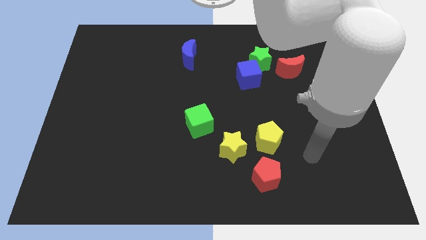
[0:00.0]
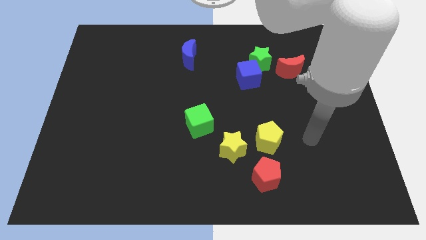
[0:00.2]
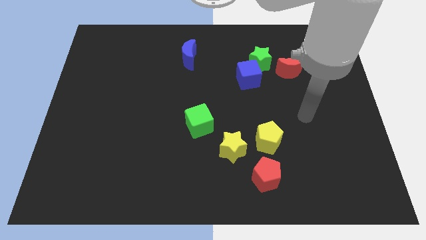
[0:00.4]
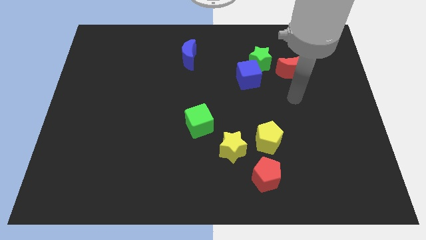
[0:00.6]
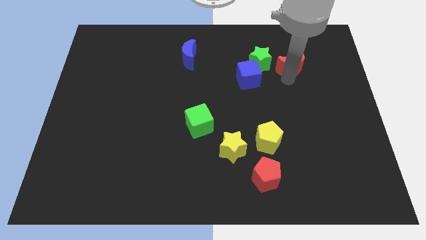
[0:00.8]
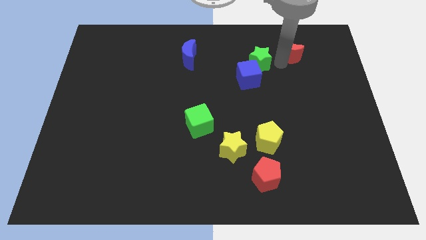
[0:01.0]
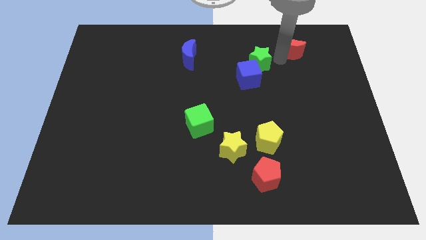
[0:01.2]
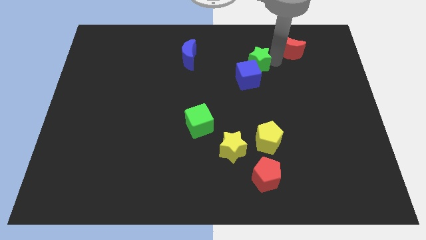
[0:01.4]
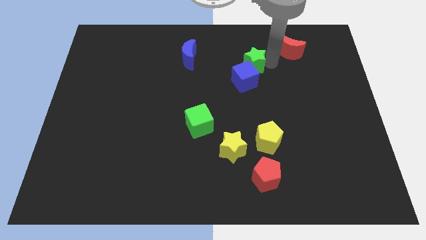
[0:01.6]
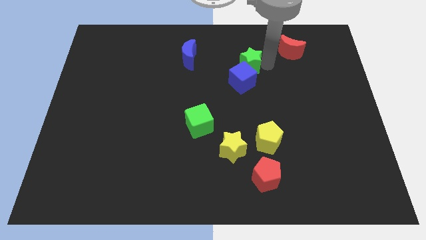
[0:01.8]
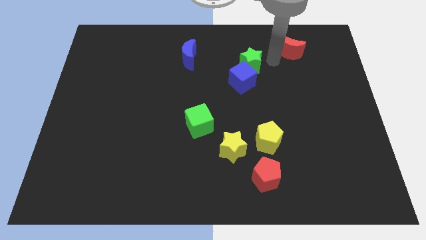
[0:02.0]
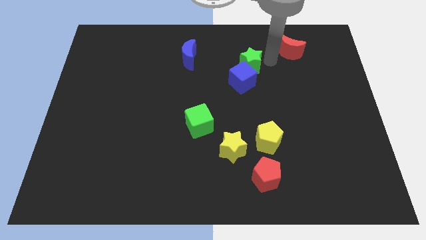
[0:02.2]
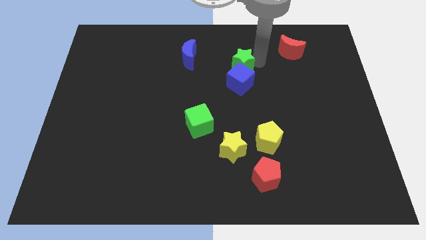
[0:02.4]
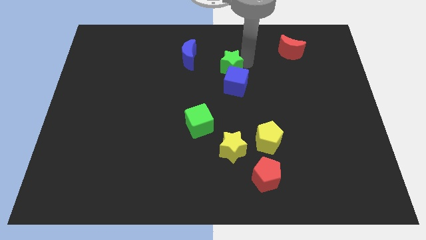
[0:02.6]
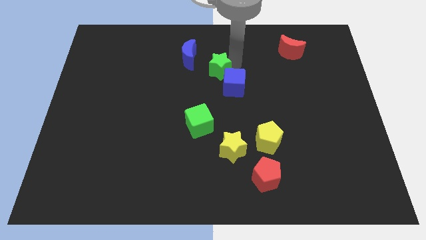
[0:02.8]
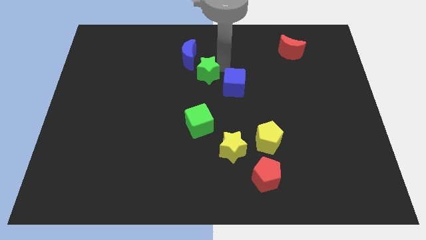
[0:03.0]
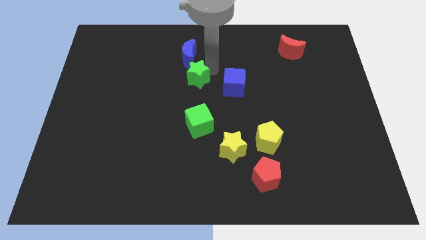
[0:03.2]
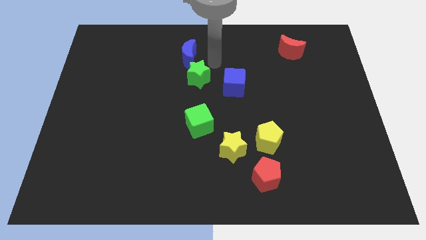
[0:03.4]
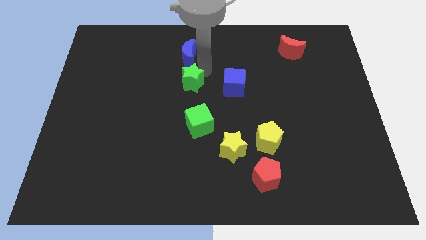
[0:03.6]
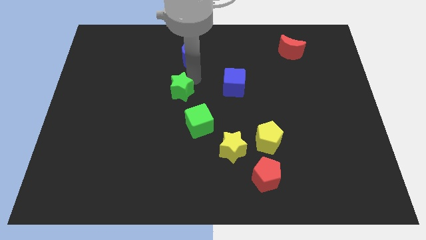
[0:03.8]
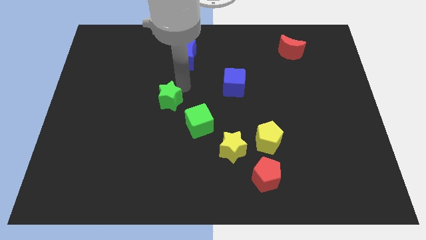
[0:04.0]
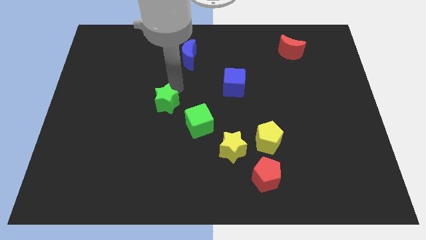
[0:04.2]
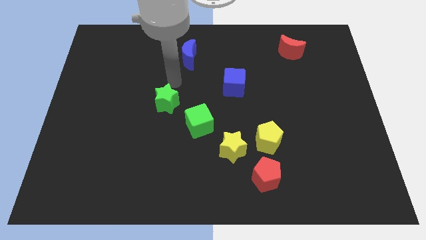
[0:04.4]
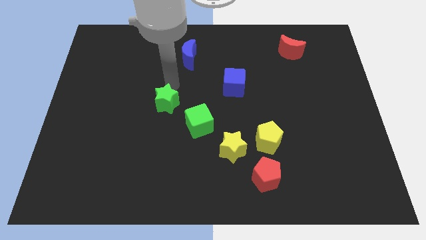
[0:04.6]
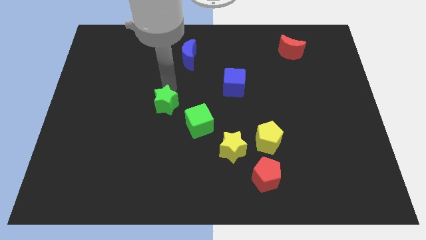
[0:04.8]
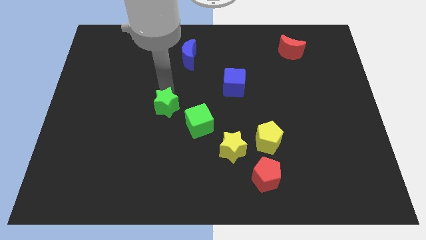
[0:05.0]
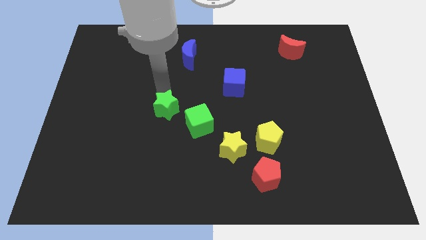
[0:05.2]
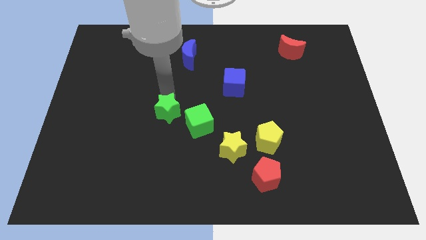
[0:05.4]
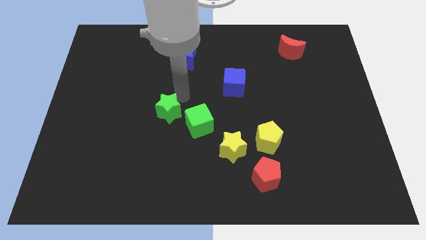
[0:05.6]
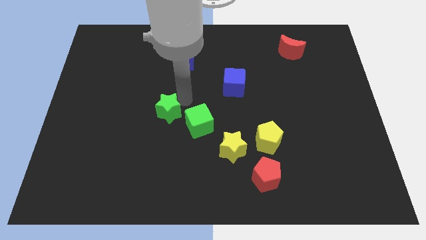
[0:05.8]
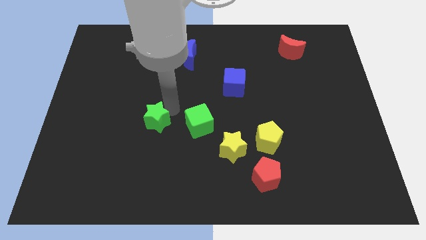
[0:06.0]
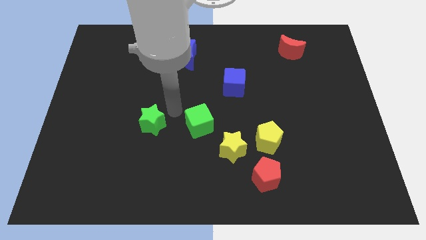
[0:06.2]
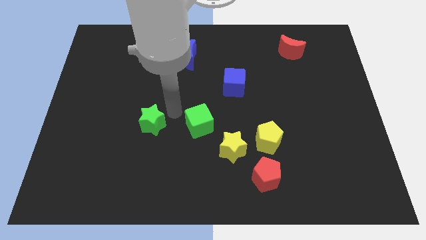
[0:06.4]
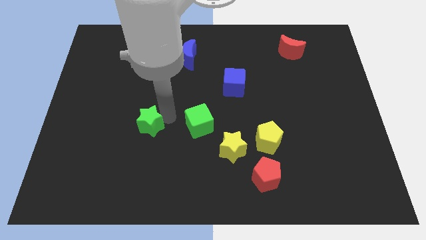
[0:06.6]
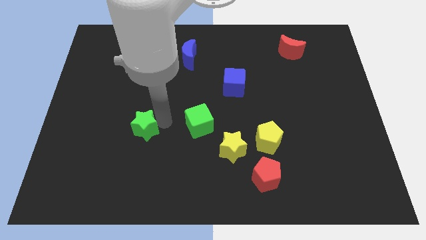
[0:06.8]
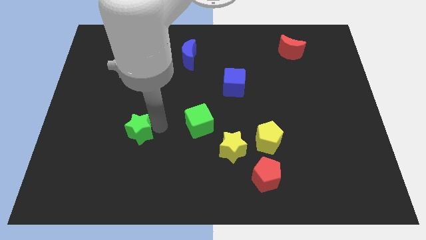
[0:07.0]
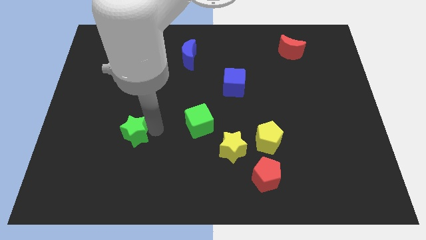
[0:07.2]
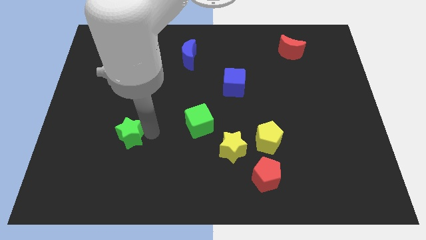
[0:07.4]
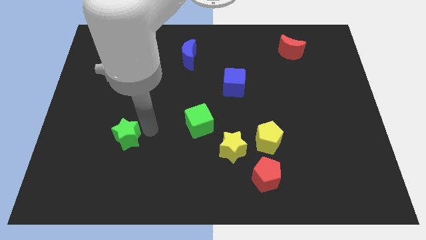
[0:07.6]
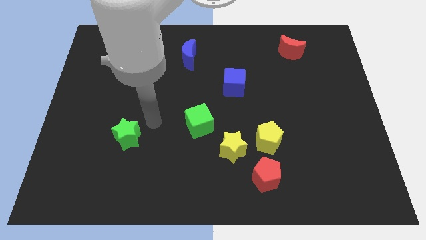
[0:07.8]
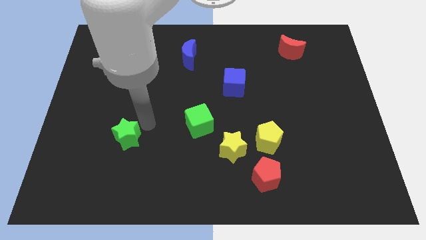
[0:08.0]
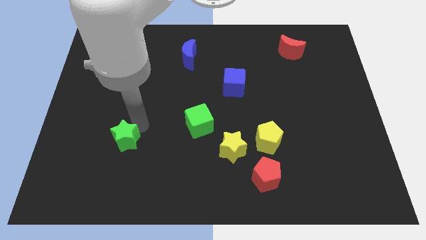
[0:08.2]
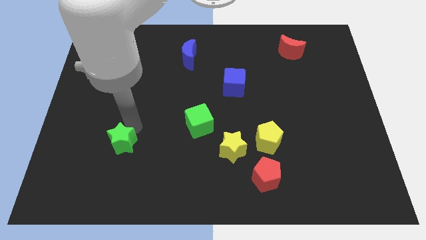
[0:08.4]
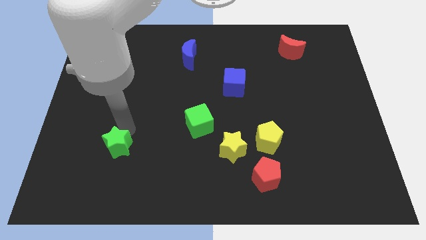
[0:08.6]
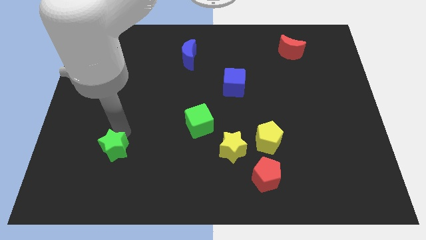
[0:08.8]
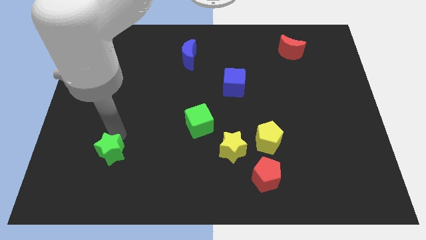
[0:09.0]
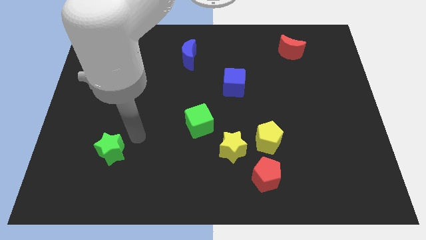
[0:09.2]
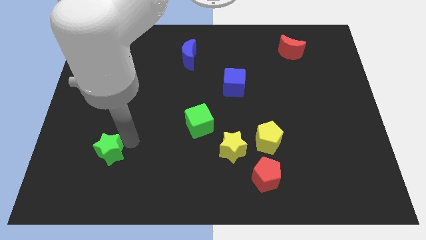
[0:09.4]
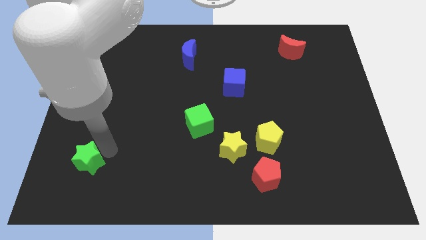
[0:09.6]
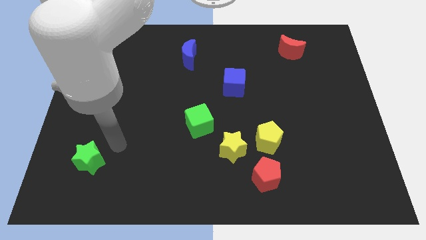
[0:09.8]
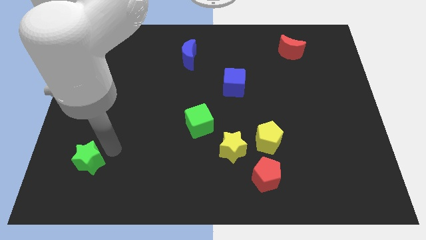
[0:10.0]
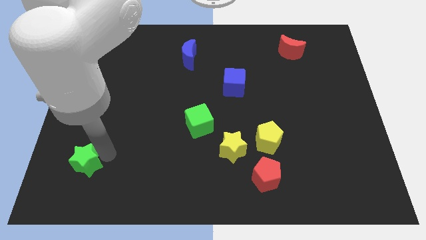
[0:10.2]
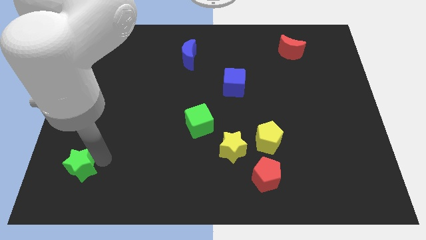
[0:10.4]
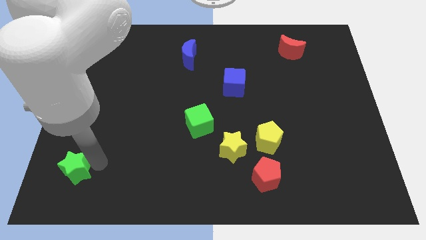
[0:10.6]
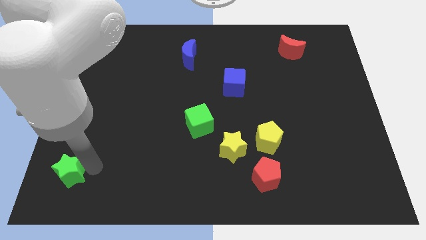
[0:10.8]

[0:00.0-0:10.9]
slide the green star to the bottom left corner

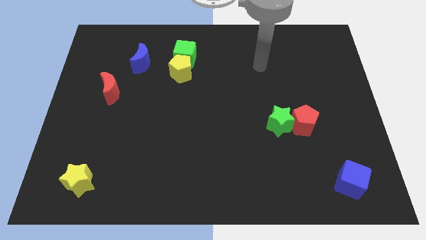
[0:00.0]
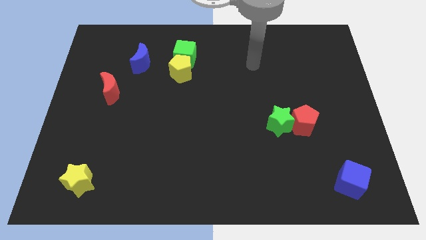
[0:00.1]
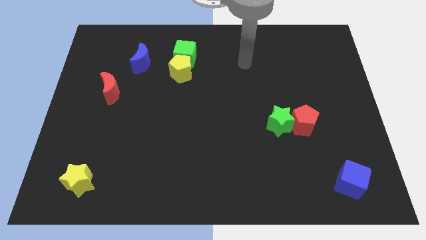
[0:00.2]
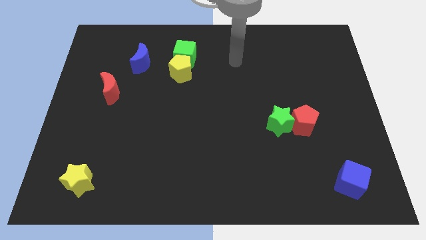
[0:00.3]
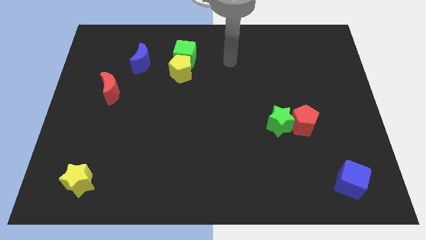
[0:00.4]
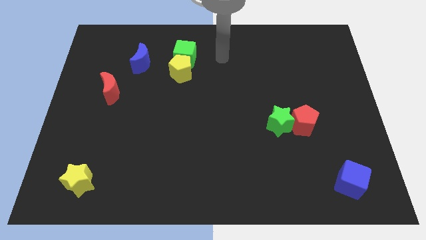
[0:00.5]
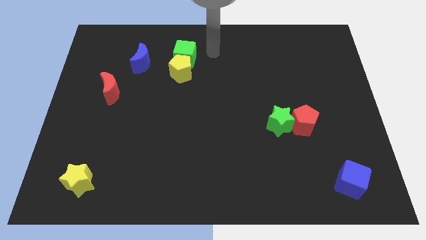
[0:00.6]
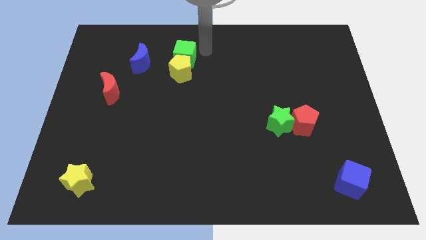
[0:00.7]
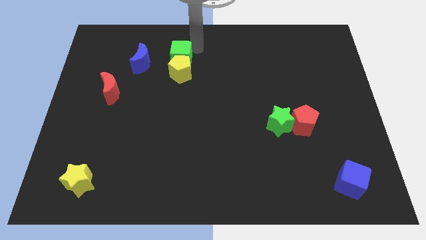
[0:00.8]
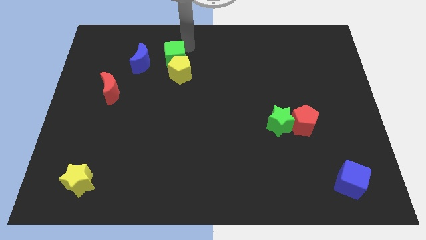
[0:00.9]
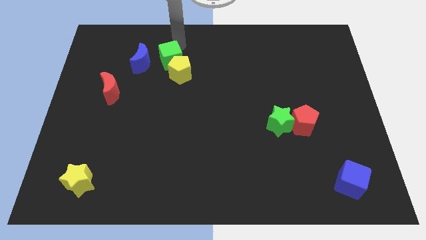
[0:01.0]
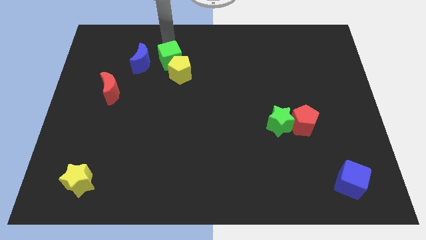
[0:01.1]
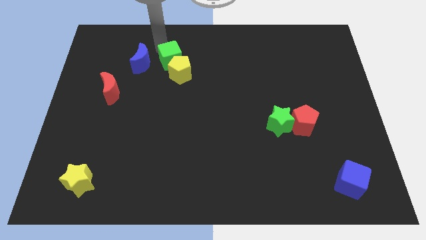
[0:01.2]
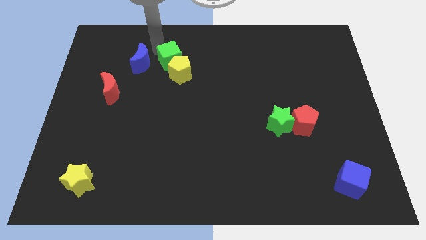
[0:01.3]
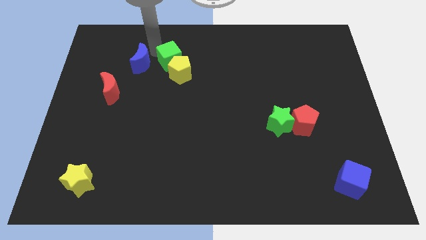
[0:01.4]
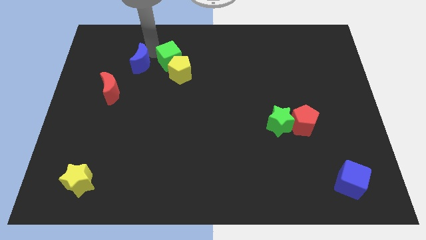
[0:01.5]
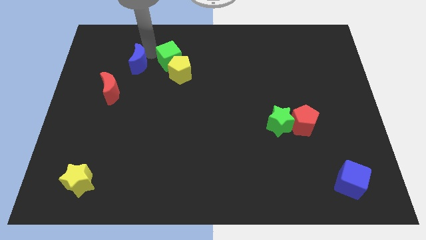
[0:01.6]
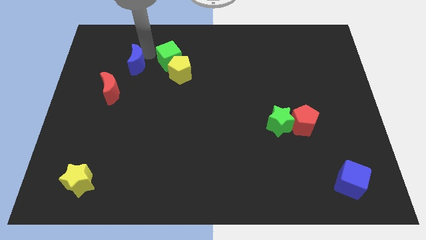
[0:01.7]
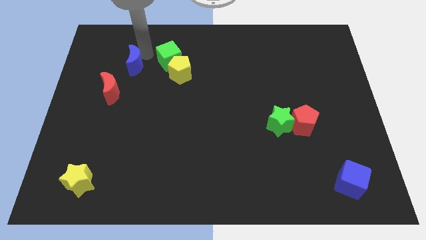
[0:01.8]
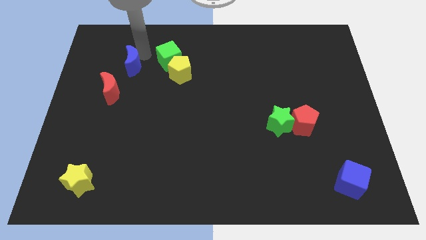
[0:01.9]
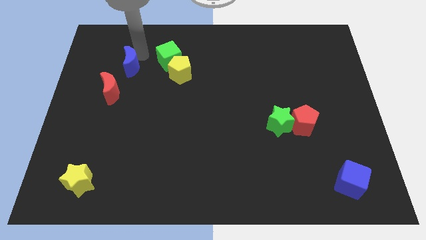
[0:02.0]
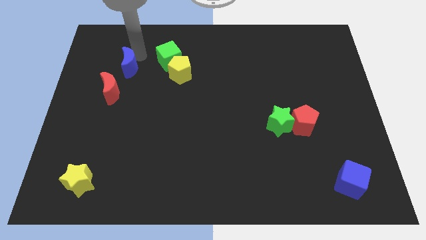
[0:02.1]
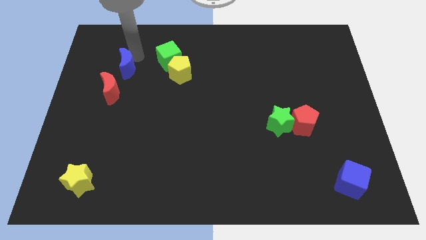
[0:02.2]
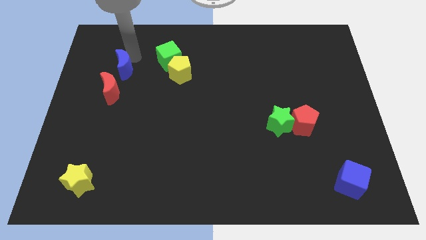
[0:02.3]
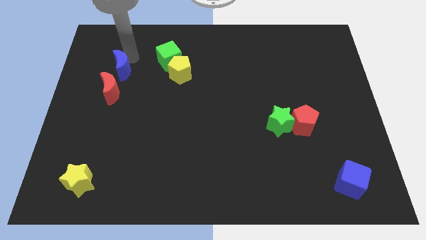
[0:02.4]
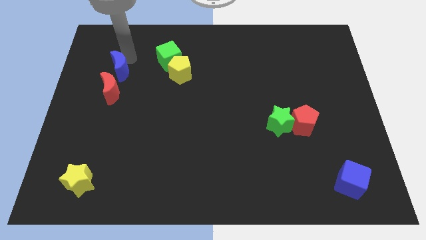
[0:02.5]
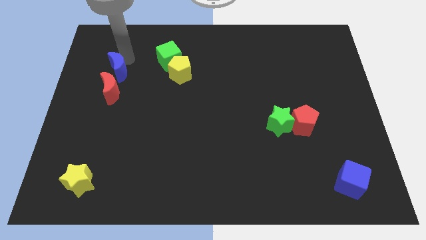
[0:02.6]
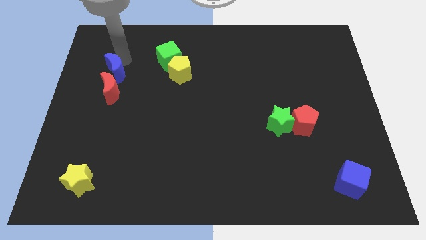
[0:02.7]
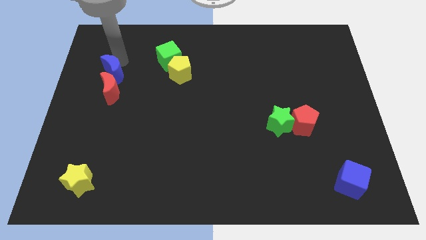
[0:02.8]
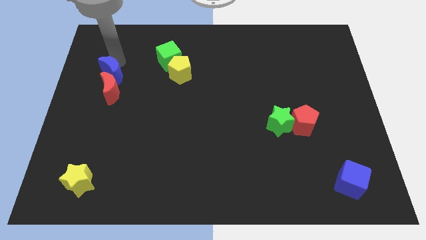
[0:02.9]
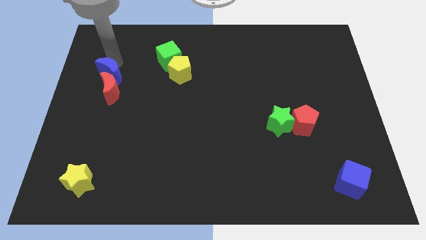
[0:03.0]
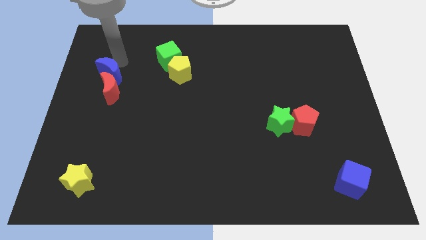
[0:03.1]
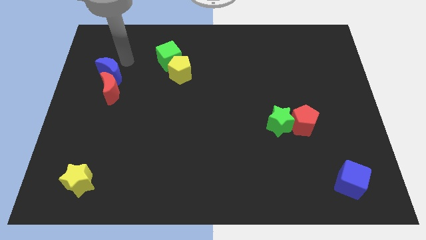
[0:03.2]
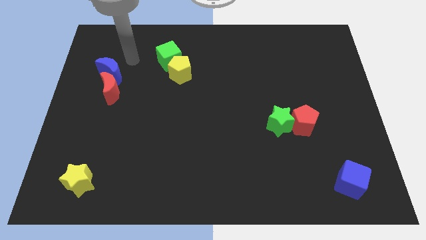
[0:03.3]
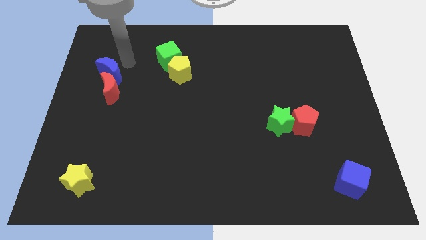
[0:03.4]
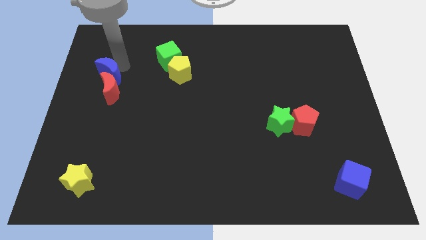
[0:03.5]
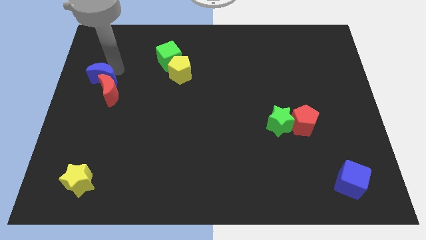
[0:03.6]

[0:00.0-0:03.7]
put the blue moon to the left side
